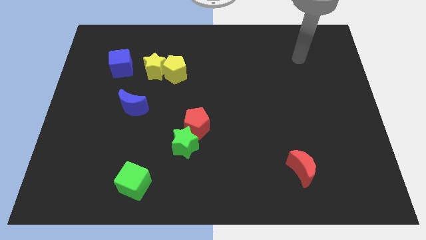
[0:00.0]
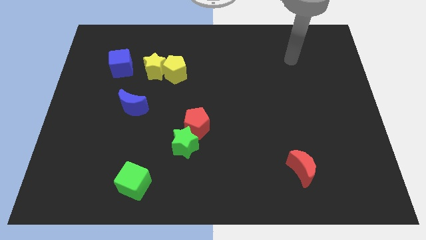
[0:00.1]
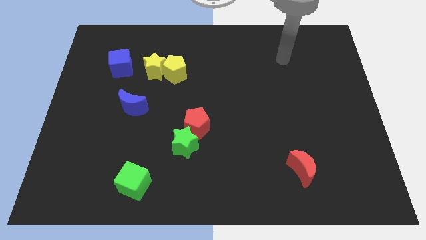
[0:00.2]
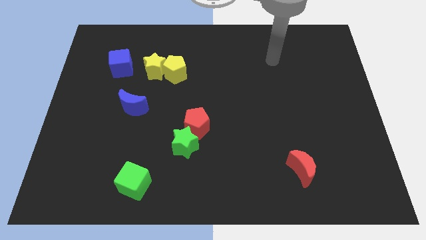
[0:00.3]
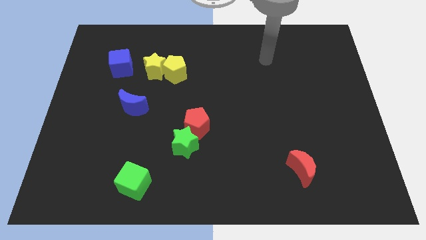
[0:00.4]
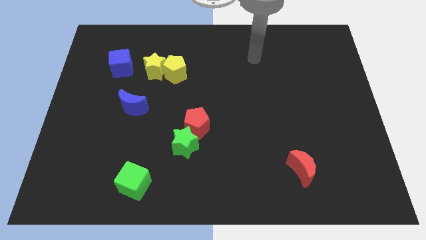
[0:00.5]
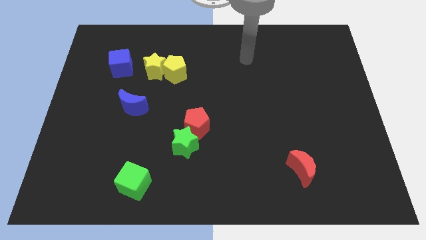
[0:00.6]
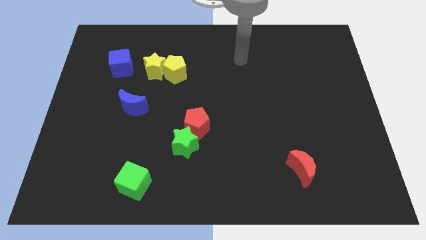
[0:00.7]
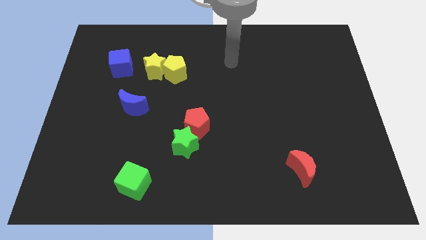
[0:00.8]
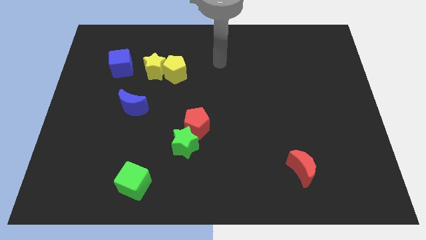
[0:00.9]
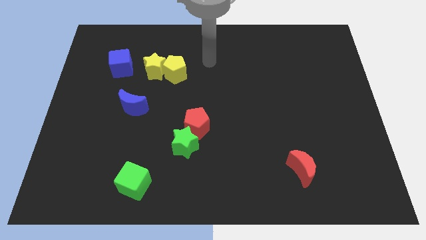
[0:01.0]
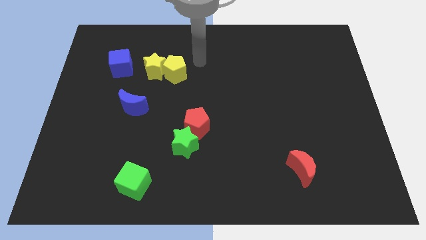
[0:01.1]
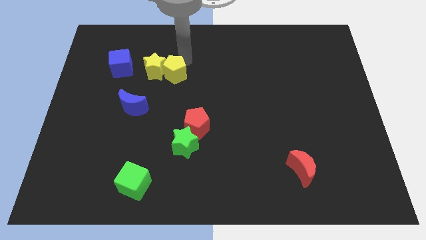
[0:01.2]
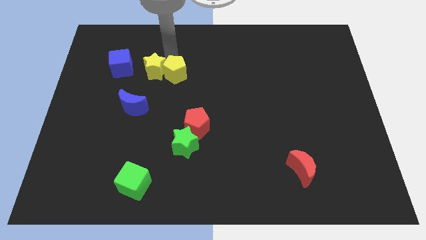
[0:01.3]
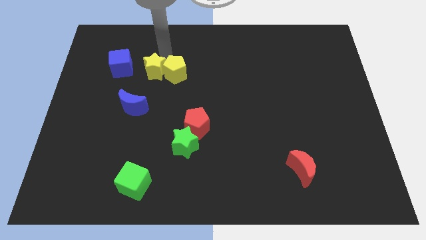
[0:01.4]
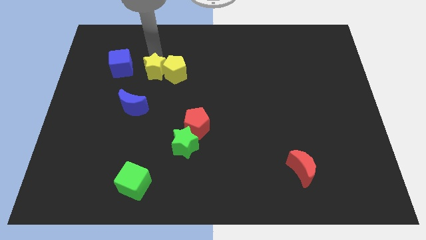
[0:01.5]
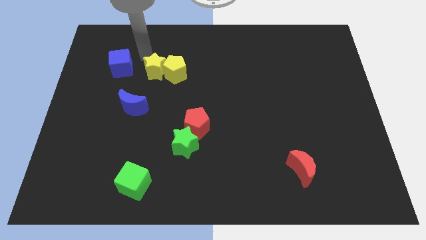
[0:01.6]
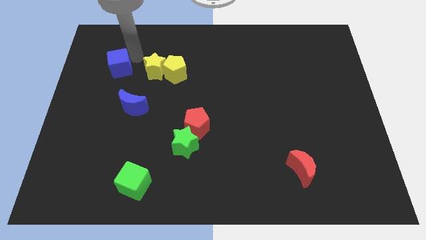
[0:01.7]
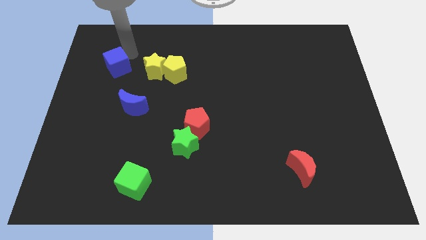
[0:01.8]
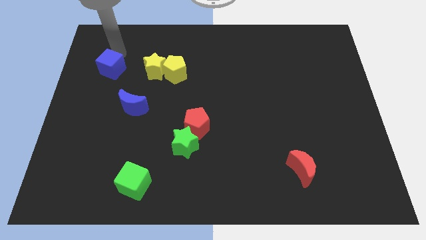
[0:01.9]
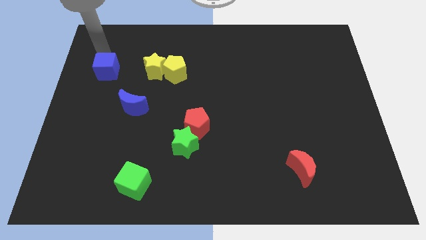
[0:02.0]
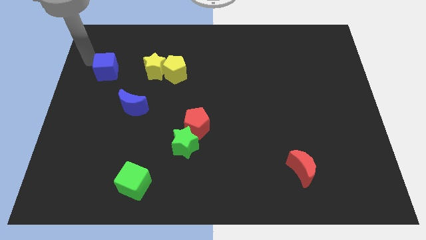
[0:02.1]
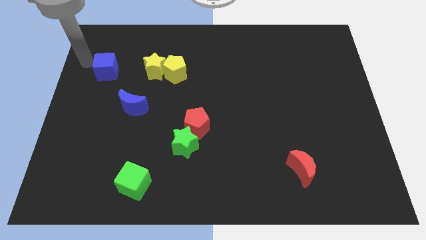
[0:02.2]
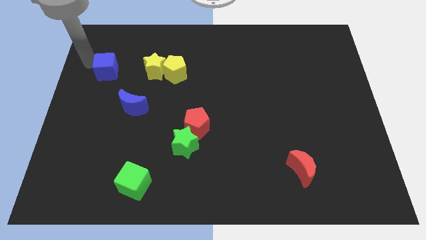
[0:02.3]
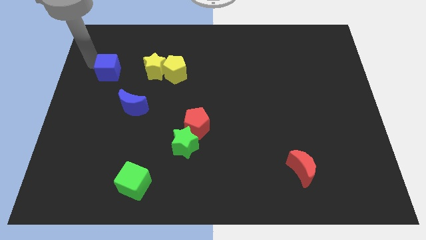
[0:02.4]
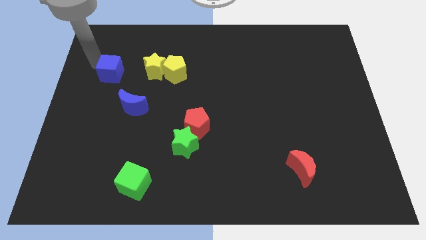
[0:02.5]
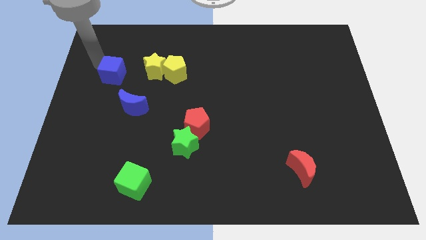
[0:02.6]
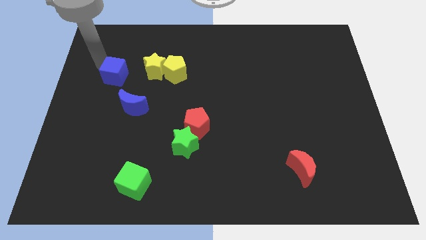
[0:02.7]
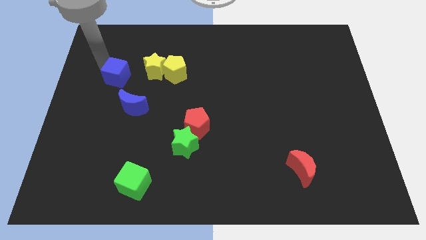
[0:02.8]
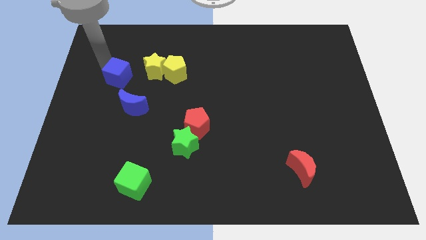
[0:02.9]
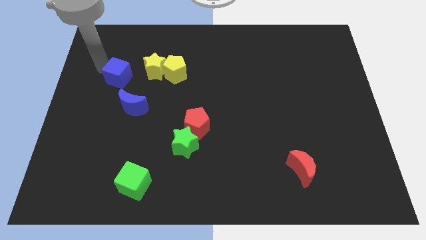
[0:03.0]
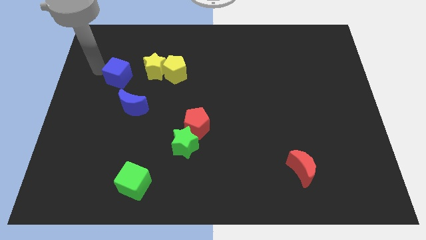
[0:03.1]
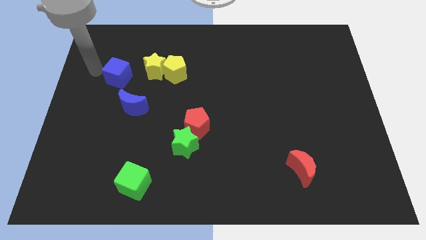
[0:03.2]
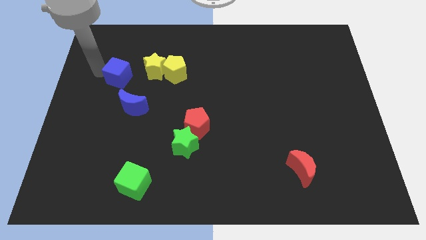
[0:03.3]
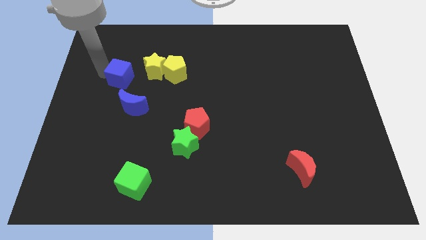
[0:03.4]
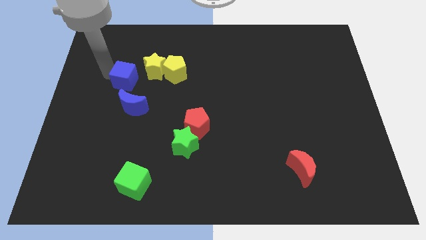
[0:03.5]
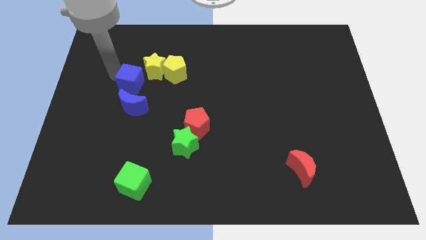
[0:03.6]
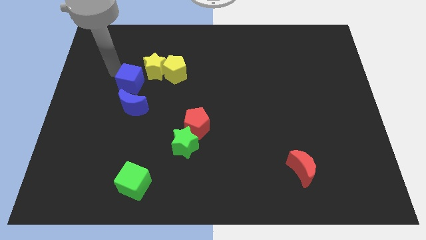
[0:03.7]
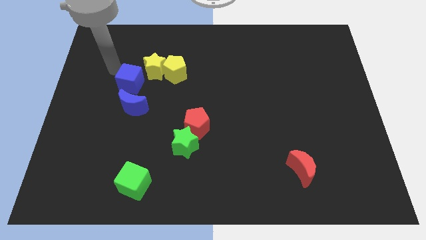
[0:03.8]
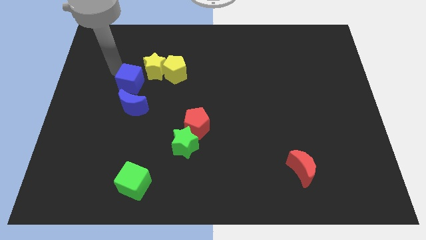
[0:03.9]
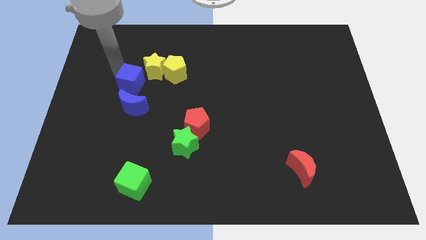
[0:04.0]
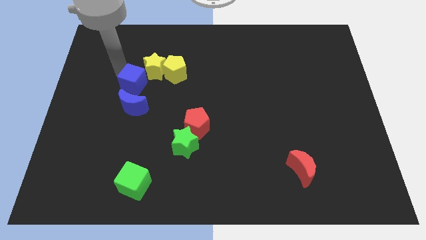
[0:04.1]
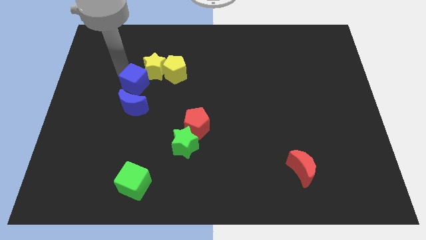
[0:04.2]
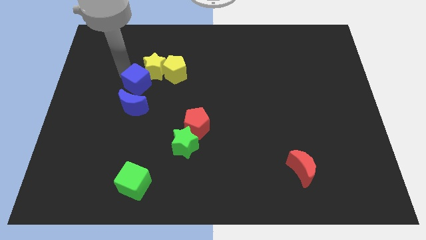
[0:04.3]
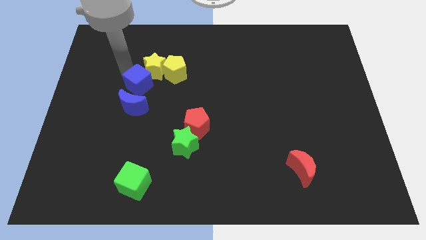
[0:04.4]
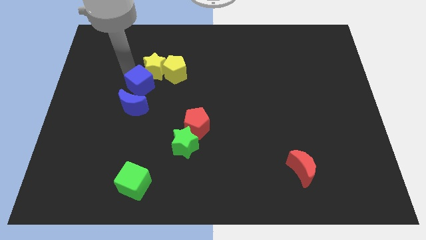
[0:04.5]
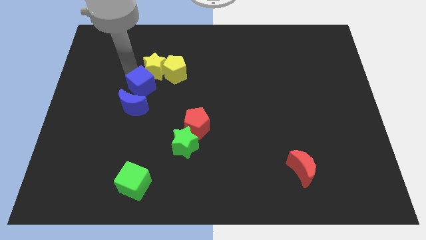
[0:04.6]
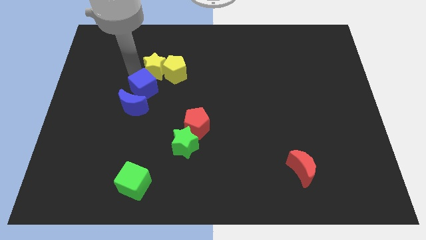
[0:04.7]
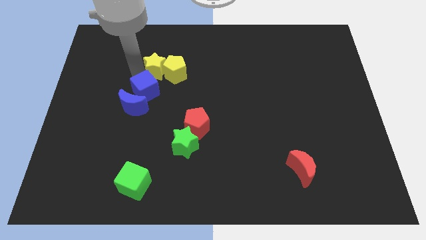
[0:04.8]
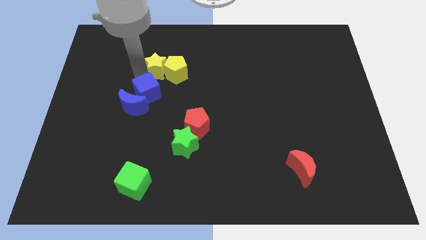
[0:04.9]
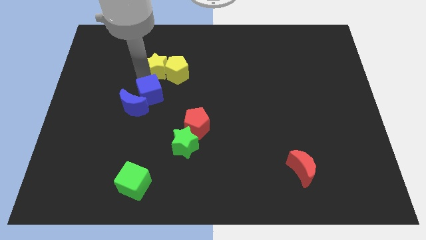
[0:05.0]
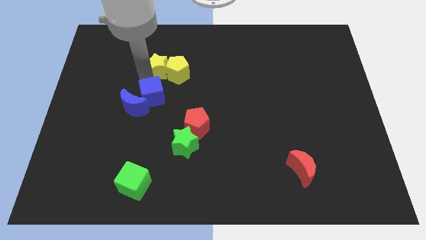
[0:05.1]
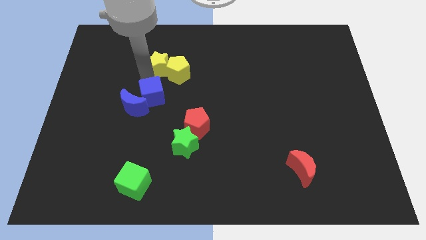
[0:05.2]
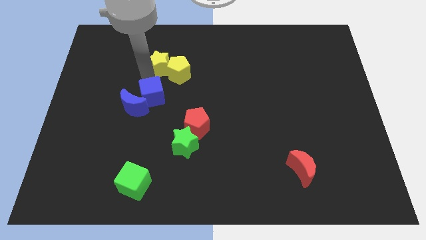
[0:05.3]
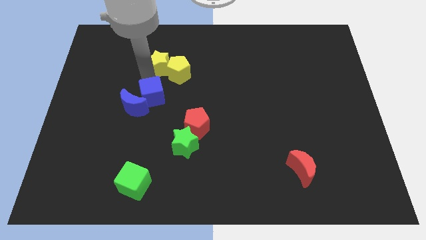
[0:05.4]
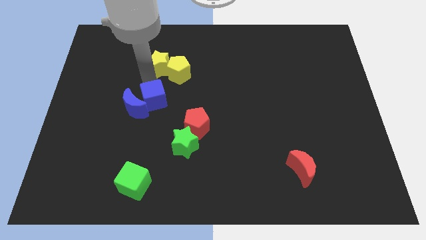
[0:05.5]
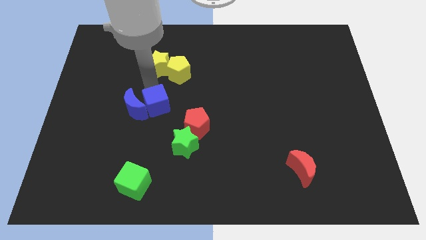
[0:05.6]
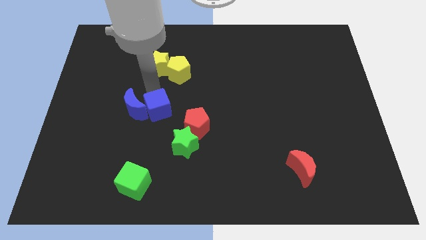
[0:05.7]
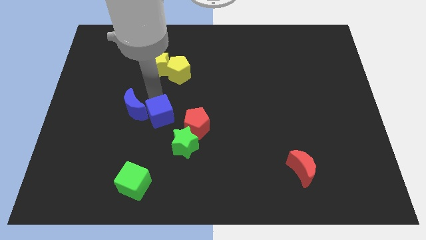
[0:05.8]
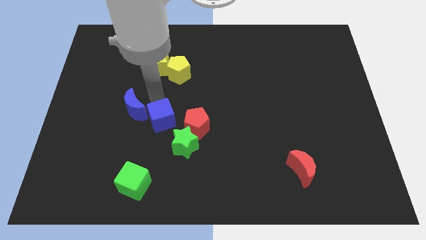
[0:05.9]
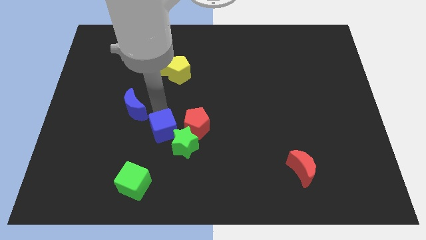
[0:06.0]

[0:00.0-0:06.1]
slide the blue cube to the bottom left of the red pentagon

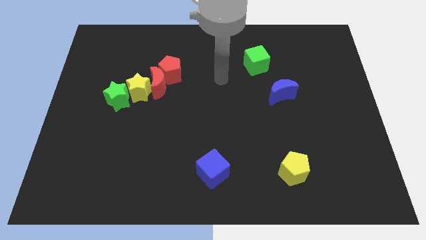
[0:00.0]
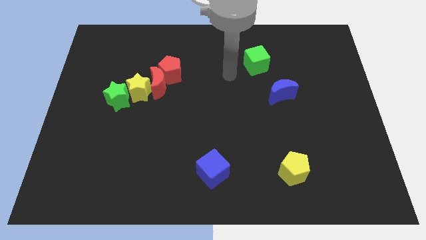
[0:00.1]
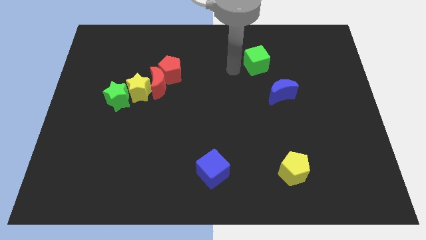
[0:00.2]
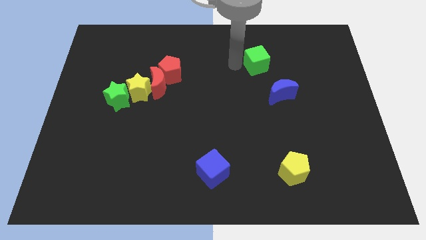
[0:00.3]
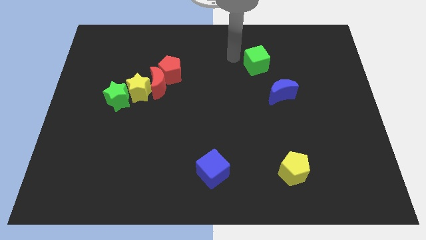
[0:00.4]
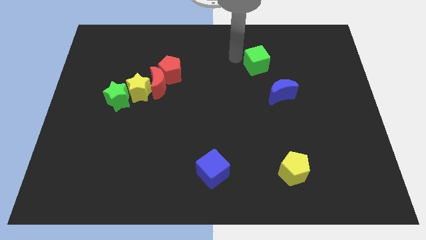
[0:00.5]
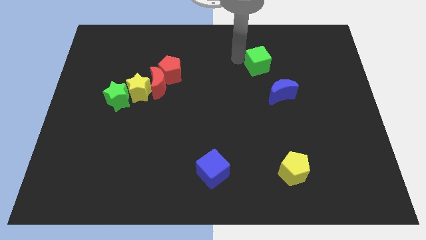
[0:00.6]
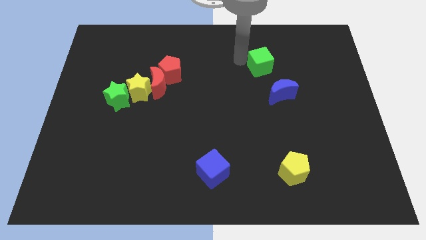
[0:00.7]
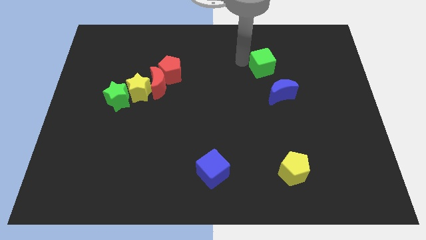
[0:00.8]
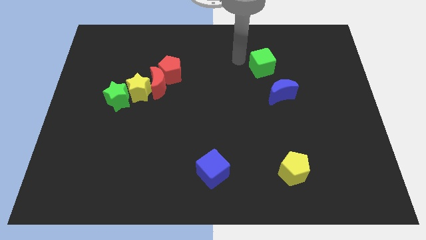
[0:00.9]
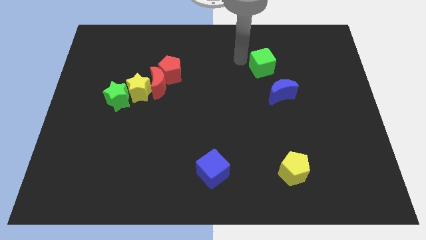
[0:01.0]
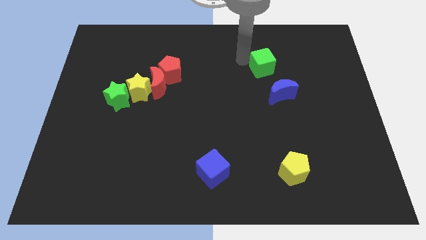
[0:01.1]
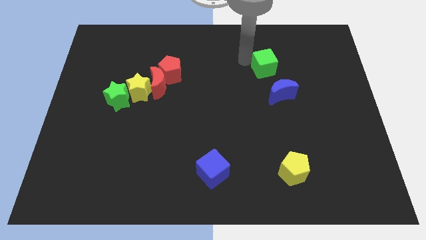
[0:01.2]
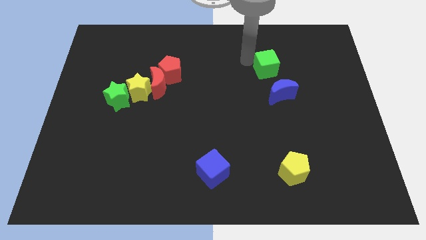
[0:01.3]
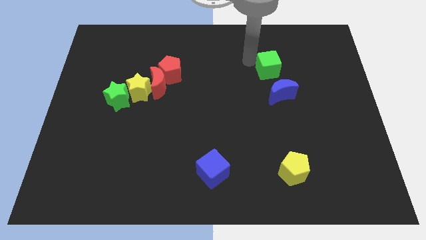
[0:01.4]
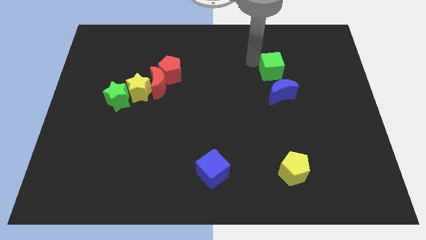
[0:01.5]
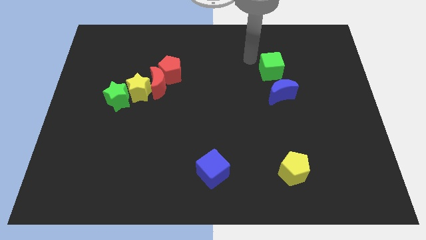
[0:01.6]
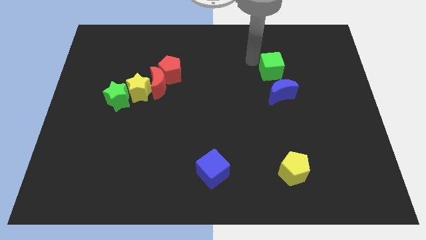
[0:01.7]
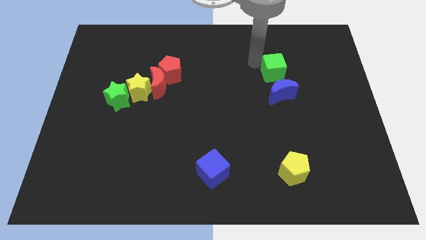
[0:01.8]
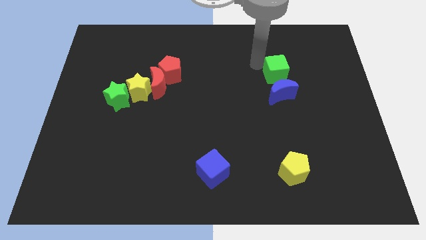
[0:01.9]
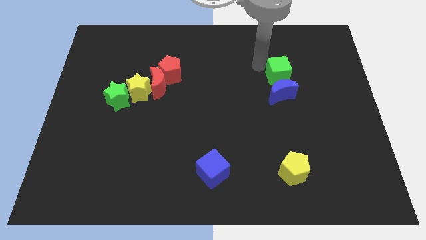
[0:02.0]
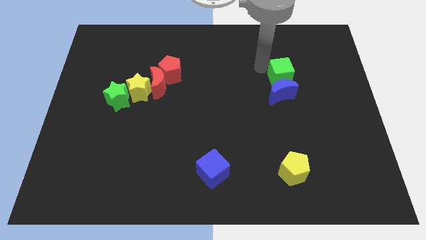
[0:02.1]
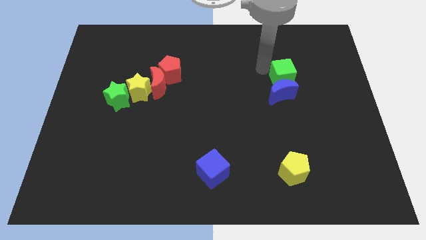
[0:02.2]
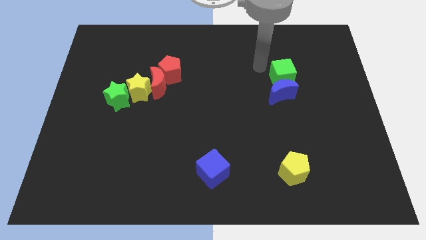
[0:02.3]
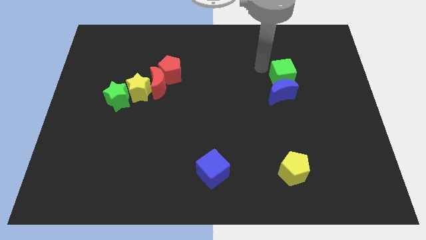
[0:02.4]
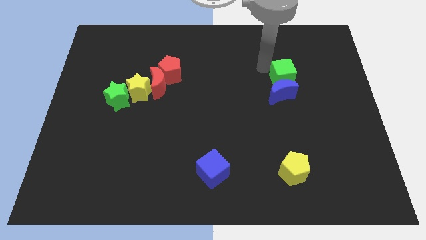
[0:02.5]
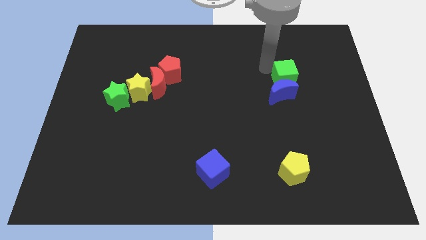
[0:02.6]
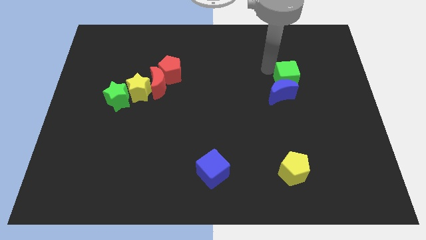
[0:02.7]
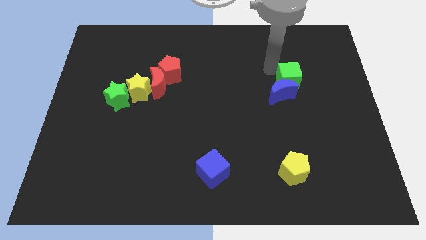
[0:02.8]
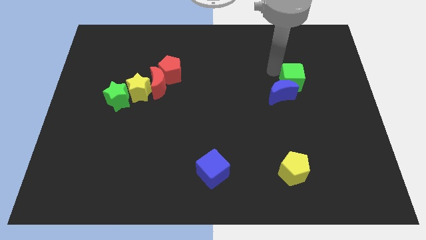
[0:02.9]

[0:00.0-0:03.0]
put the green cube just right of the blue moon
